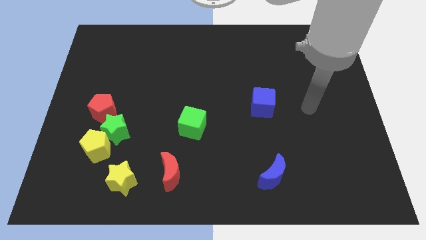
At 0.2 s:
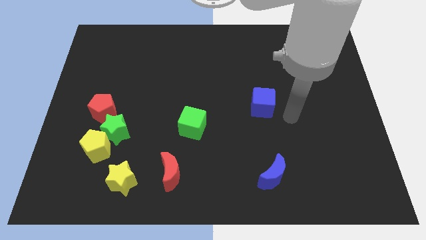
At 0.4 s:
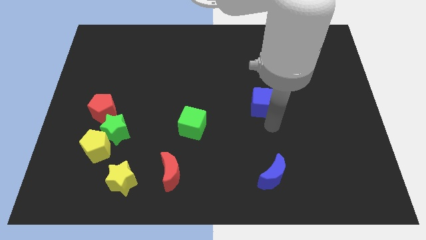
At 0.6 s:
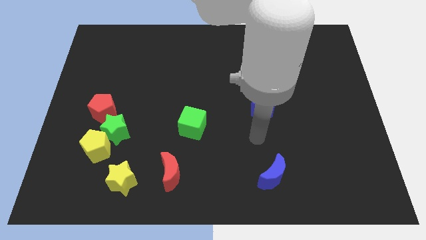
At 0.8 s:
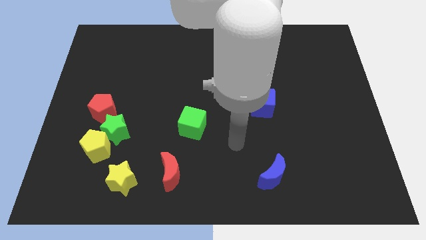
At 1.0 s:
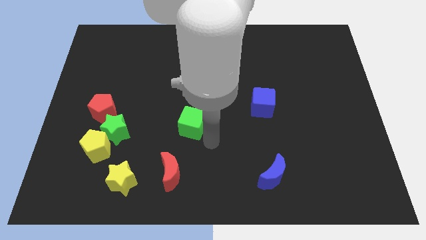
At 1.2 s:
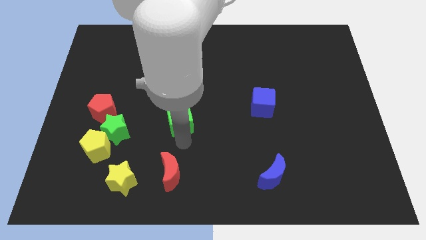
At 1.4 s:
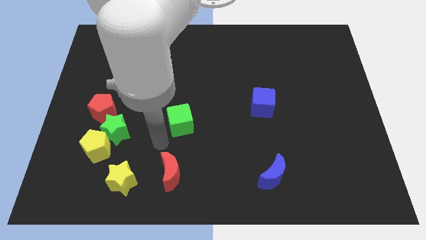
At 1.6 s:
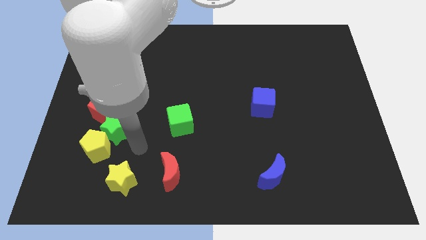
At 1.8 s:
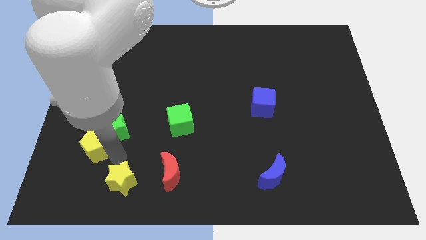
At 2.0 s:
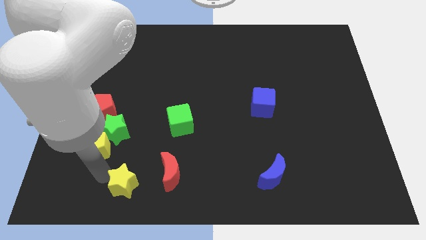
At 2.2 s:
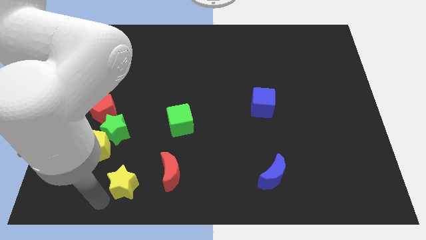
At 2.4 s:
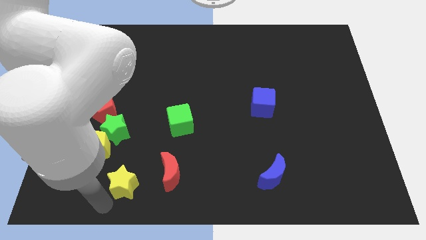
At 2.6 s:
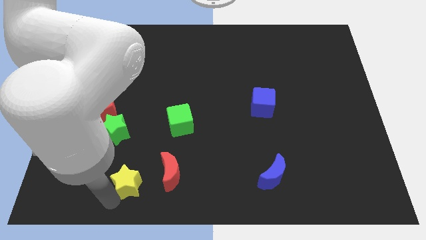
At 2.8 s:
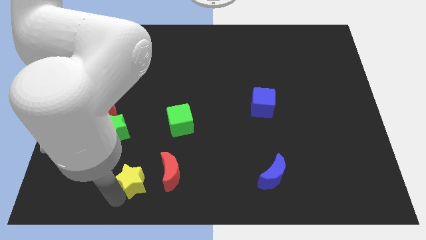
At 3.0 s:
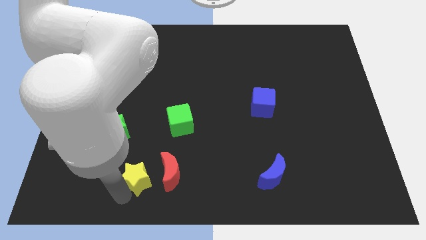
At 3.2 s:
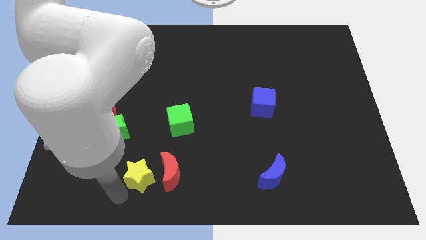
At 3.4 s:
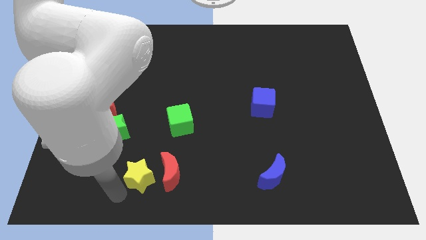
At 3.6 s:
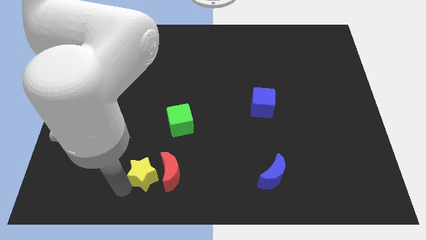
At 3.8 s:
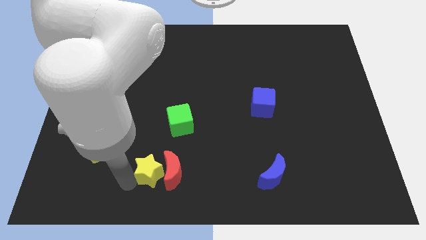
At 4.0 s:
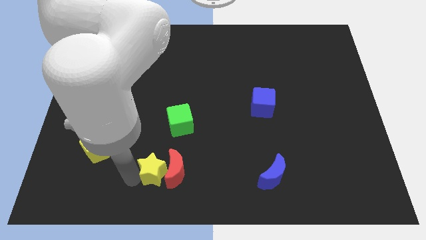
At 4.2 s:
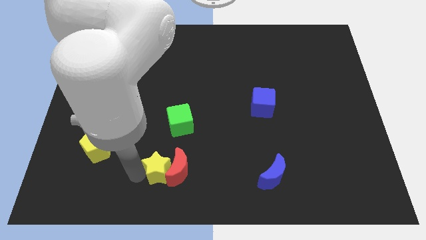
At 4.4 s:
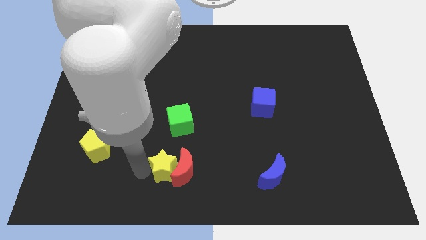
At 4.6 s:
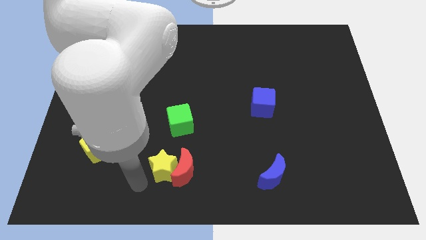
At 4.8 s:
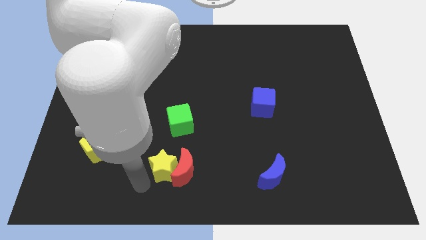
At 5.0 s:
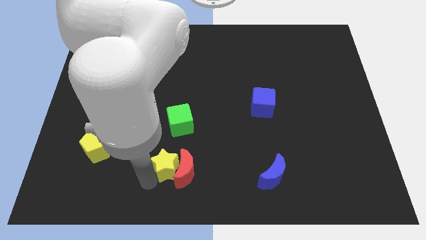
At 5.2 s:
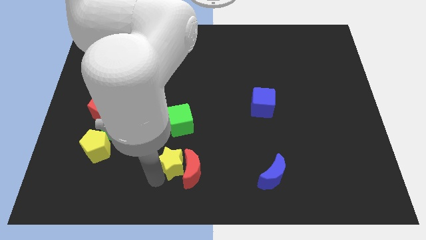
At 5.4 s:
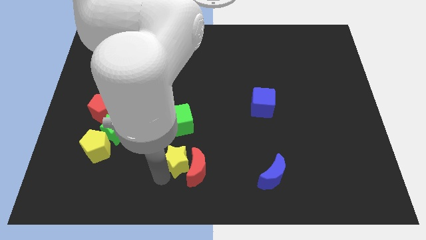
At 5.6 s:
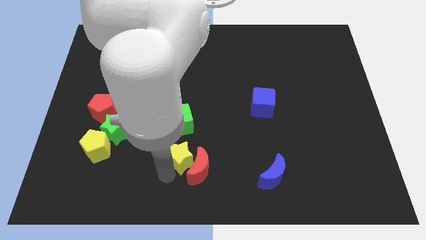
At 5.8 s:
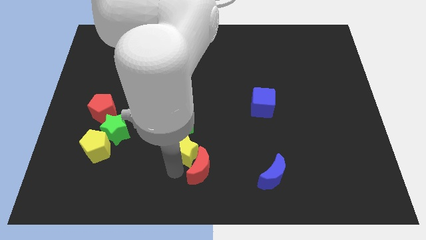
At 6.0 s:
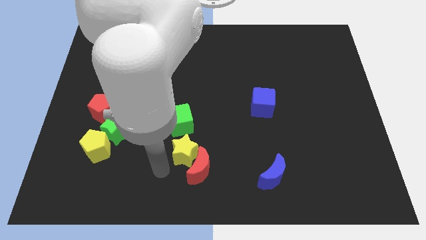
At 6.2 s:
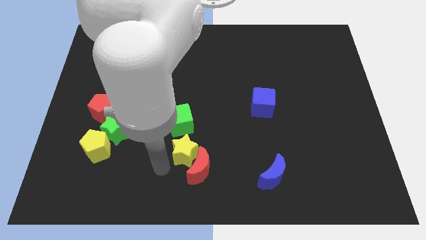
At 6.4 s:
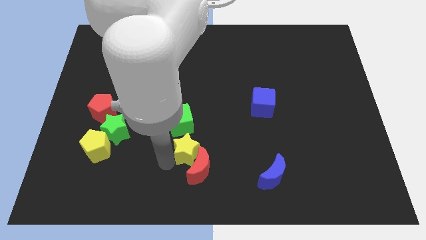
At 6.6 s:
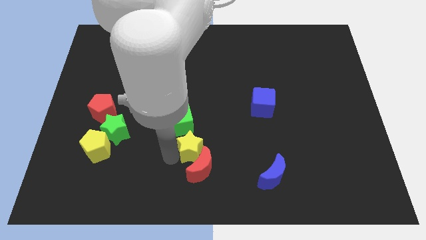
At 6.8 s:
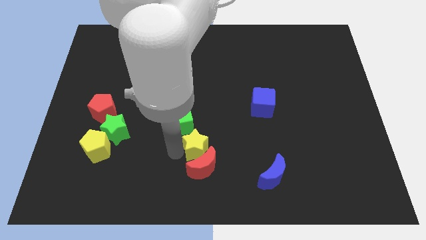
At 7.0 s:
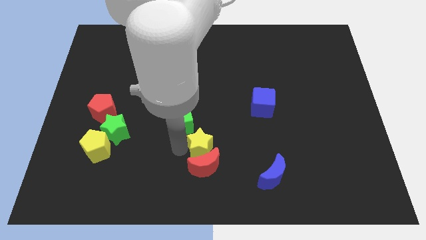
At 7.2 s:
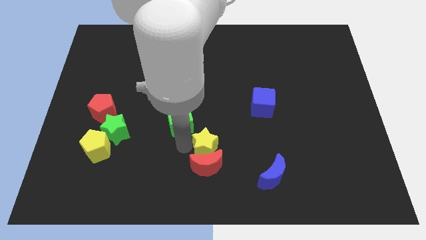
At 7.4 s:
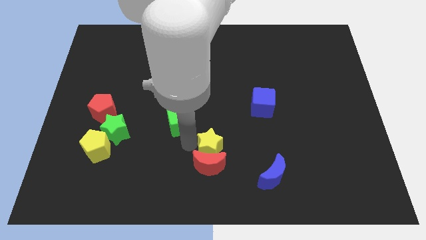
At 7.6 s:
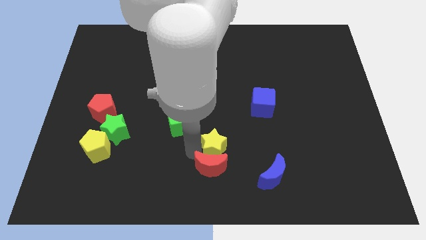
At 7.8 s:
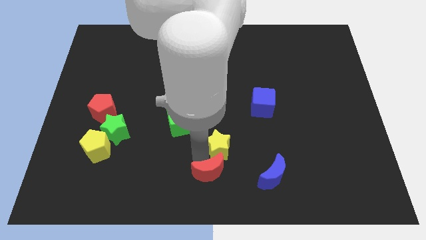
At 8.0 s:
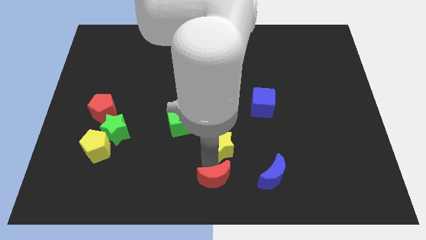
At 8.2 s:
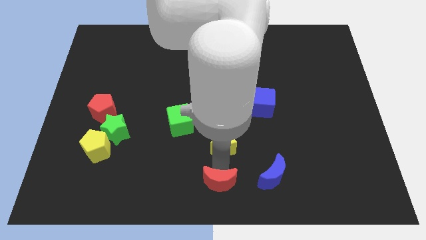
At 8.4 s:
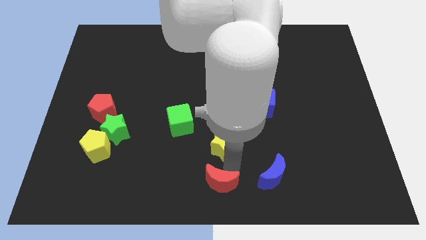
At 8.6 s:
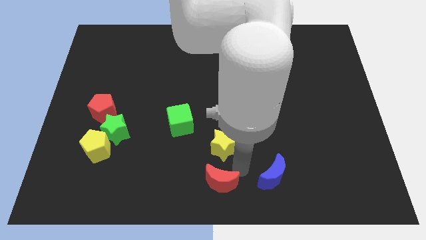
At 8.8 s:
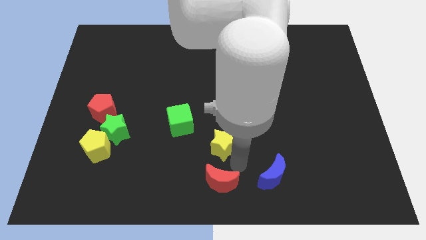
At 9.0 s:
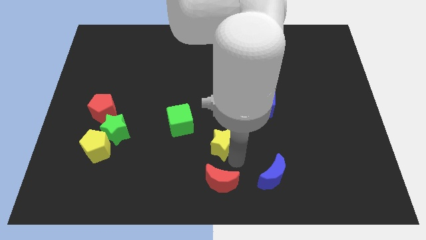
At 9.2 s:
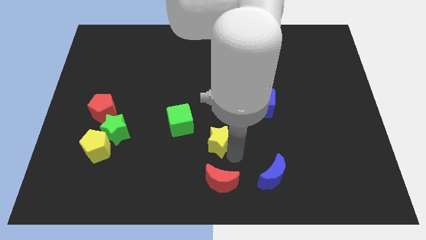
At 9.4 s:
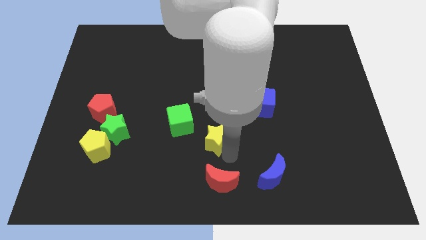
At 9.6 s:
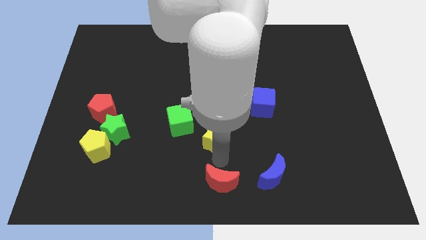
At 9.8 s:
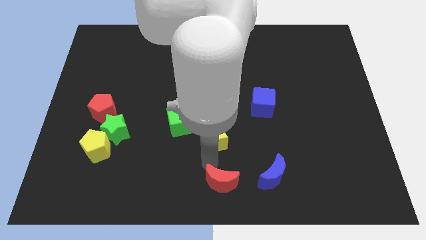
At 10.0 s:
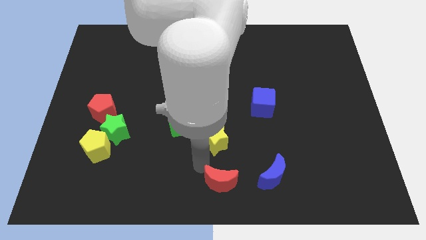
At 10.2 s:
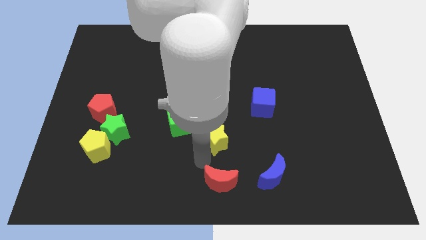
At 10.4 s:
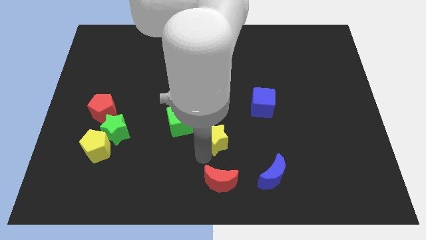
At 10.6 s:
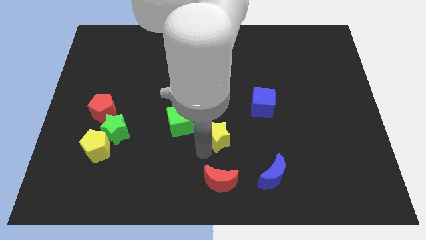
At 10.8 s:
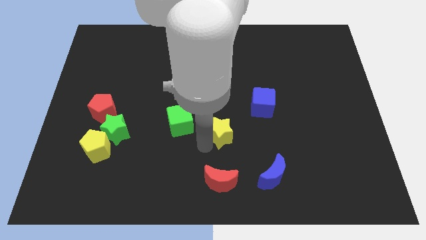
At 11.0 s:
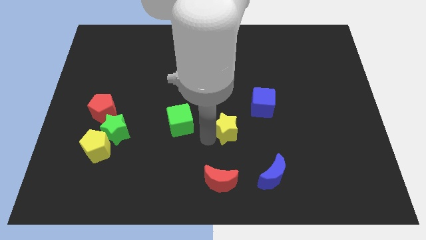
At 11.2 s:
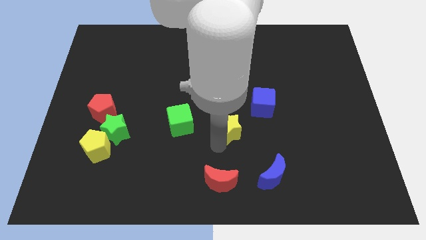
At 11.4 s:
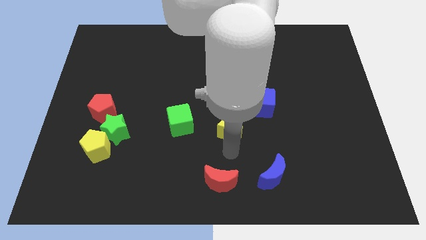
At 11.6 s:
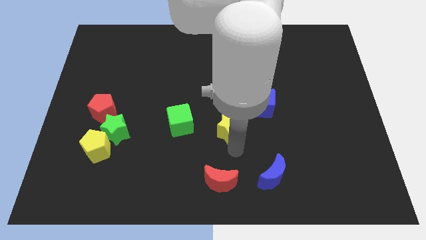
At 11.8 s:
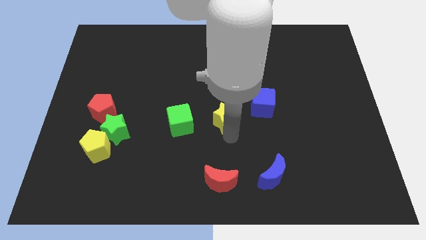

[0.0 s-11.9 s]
slide the yellow star just left of the blue cube

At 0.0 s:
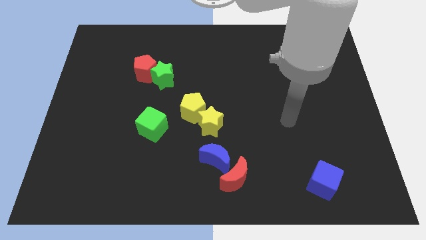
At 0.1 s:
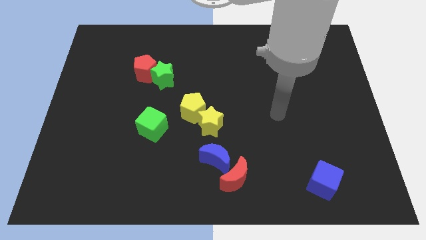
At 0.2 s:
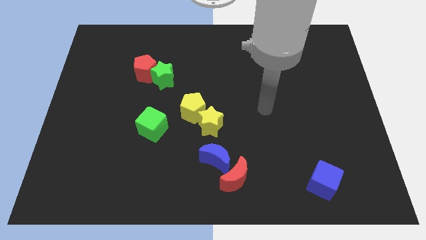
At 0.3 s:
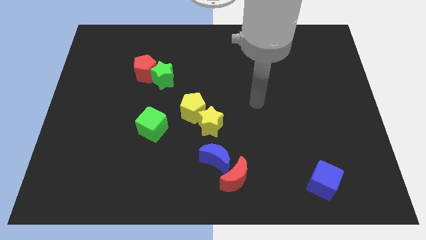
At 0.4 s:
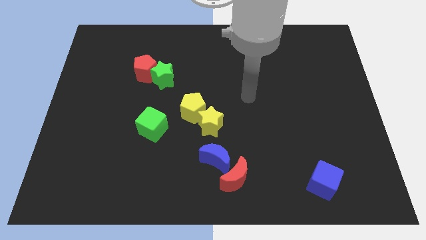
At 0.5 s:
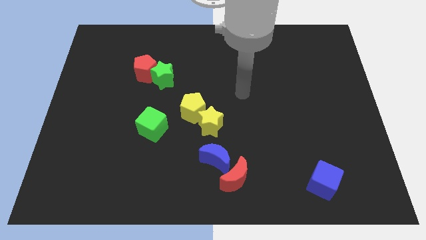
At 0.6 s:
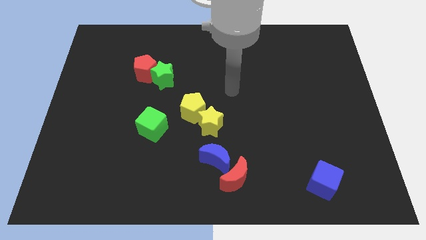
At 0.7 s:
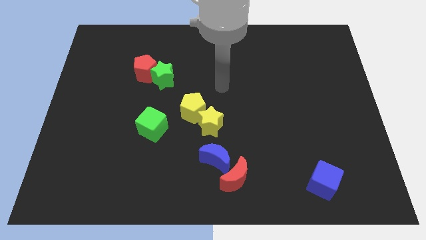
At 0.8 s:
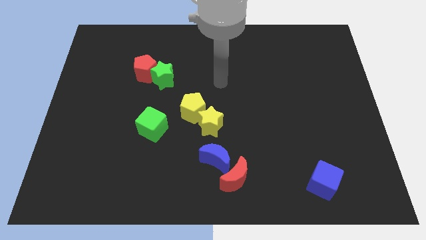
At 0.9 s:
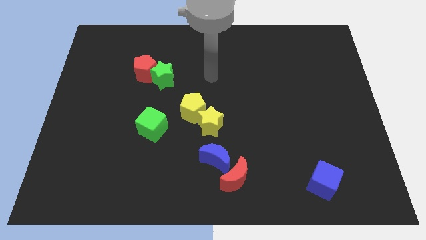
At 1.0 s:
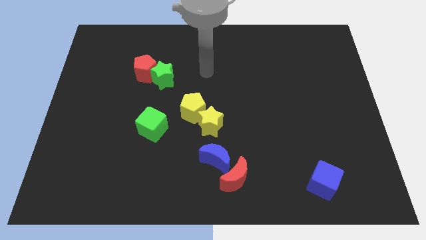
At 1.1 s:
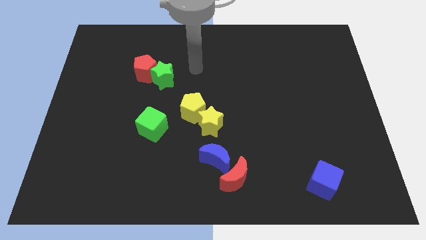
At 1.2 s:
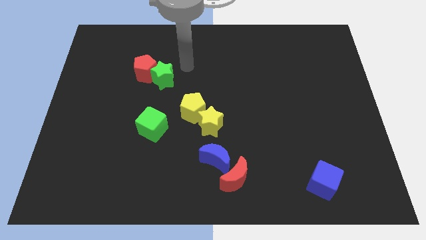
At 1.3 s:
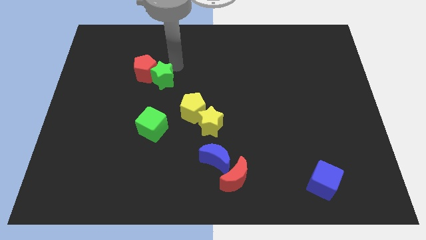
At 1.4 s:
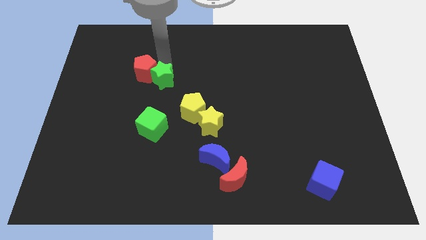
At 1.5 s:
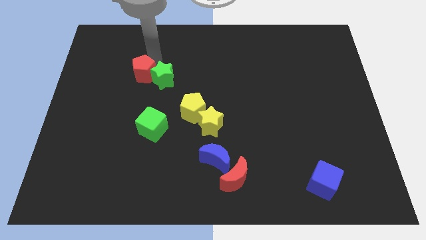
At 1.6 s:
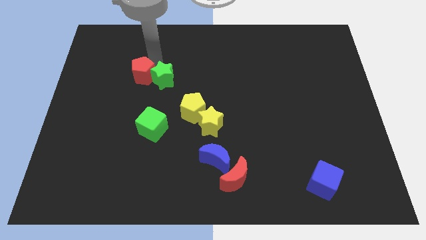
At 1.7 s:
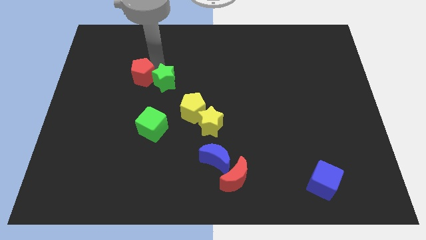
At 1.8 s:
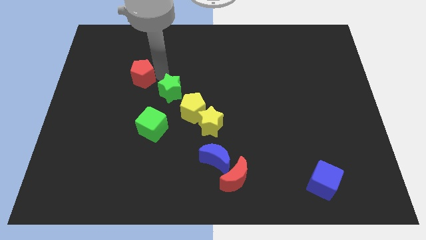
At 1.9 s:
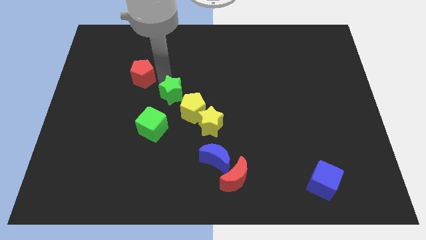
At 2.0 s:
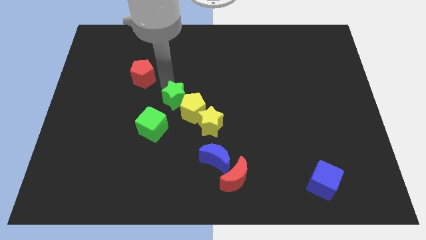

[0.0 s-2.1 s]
push the green star diagonally up and to the left of the yellow star
